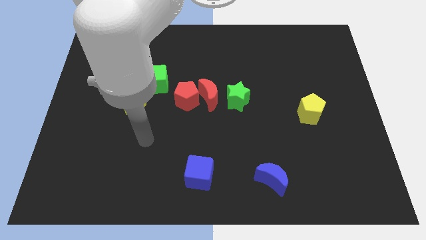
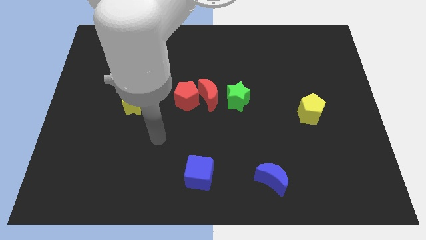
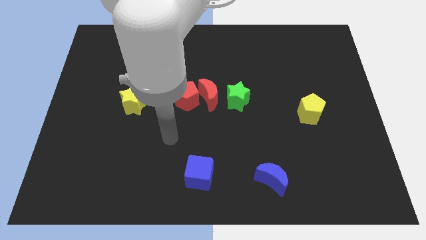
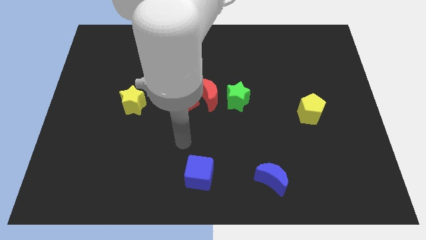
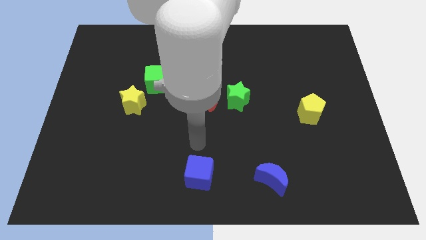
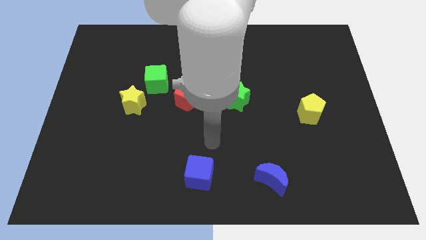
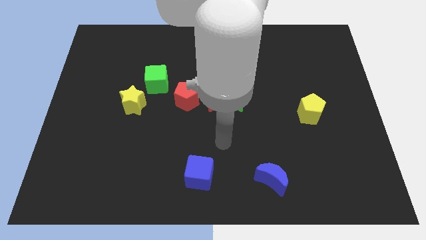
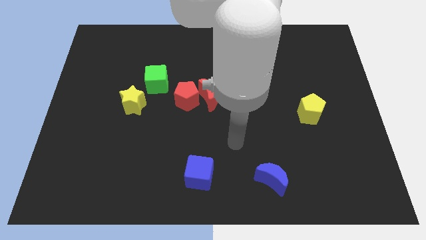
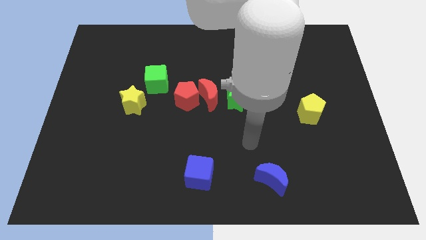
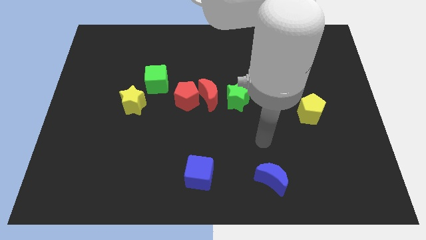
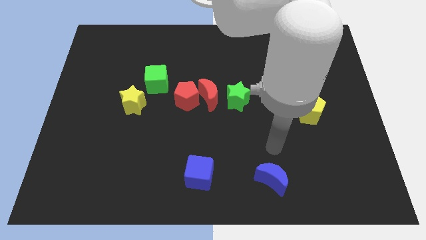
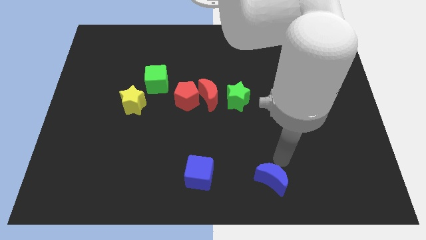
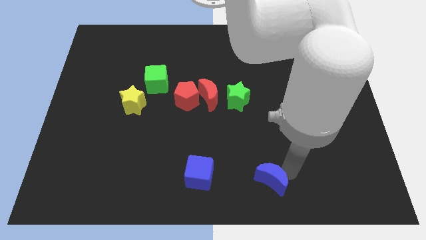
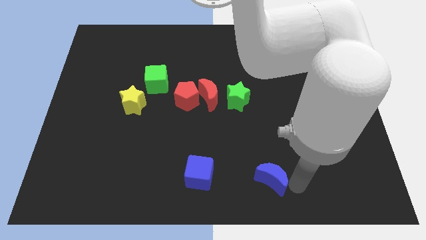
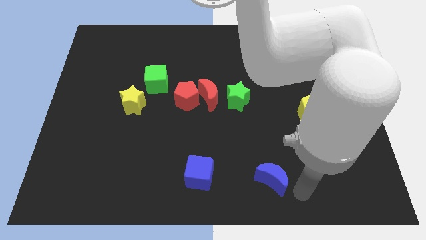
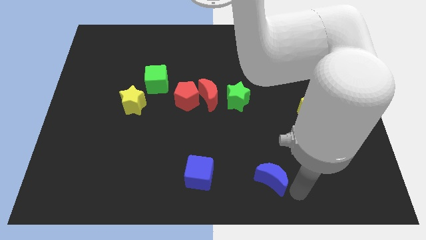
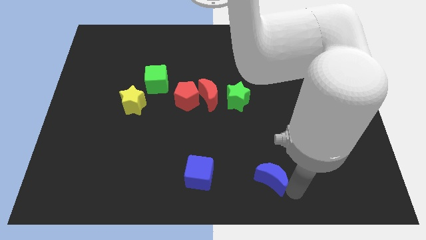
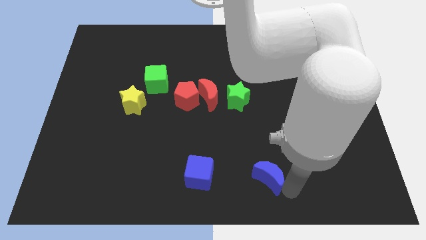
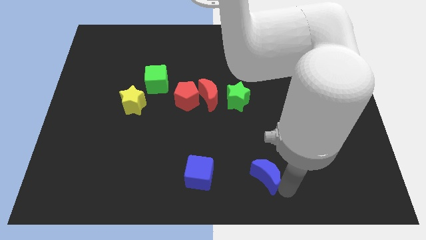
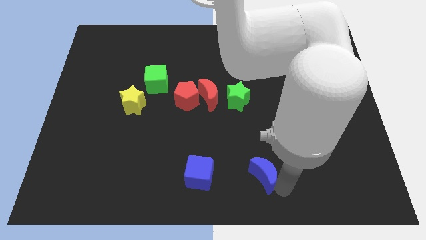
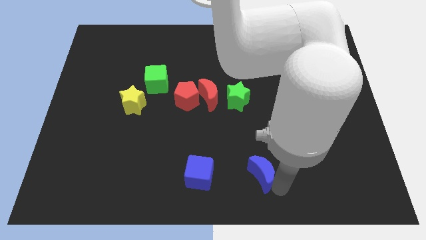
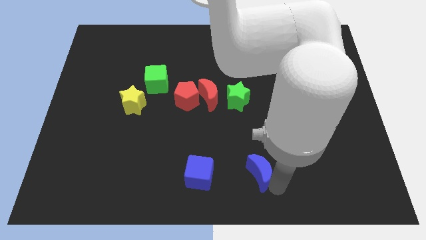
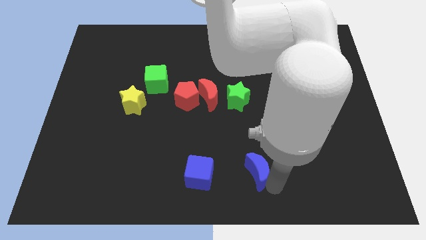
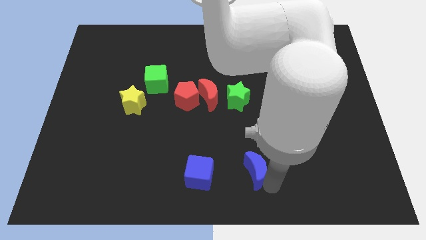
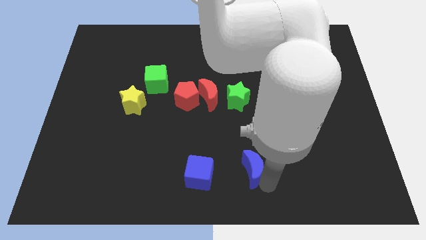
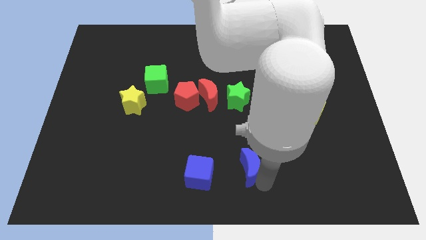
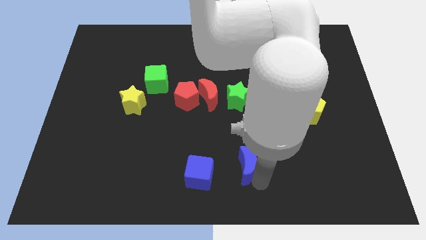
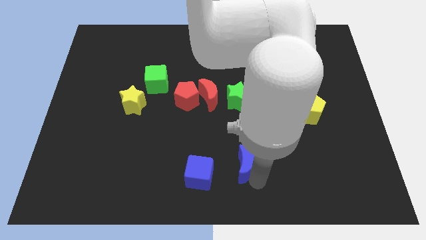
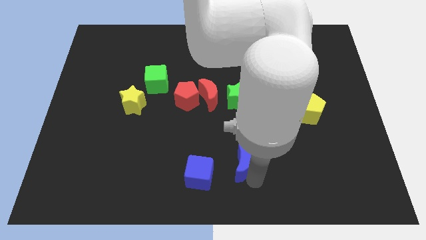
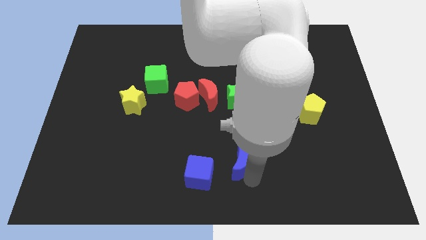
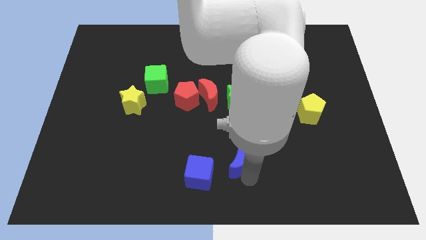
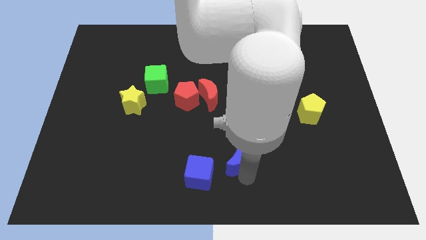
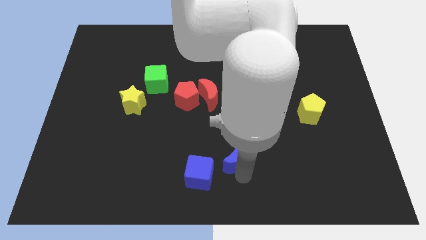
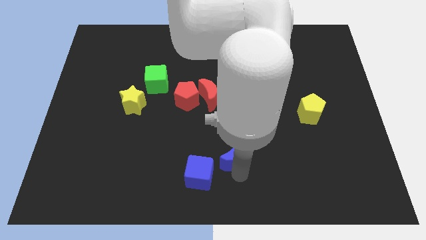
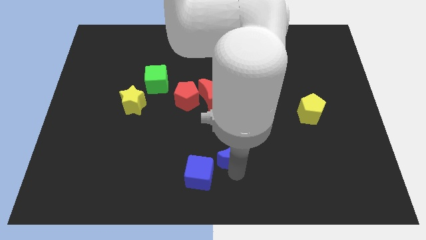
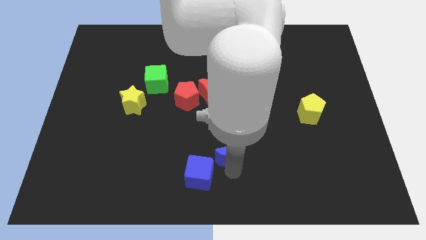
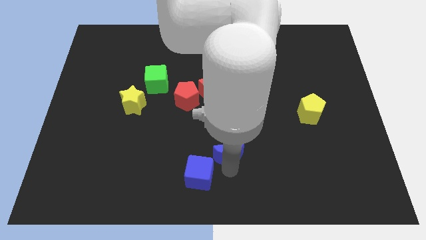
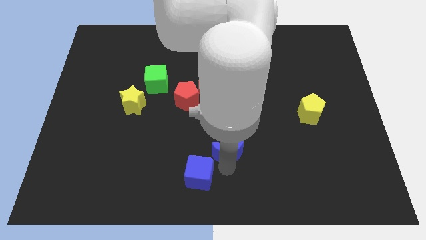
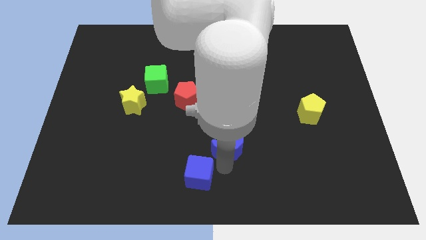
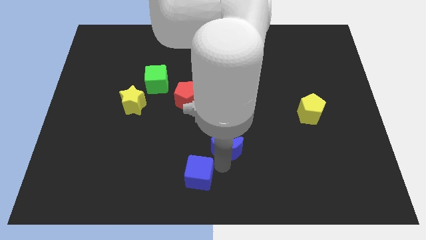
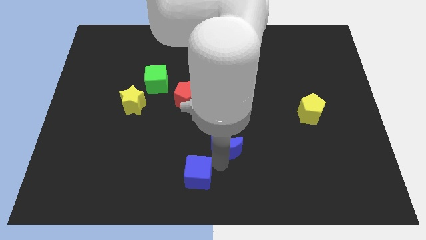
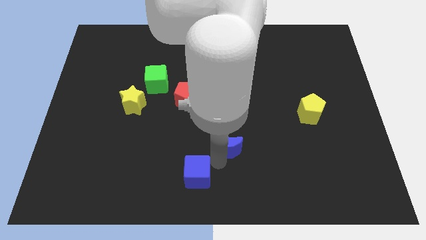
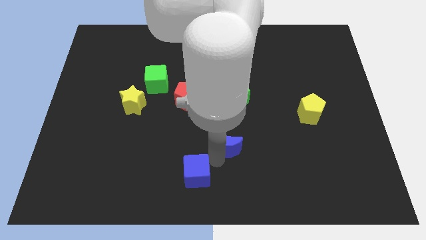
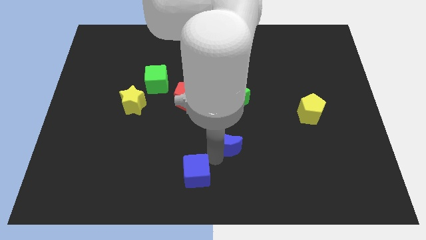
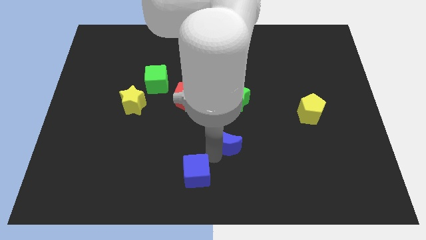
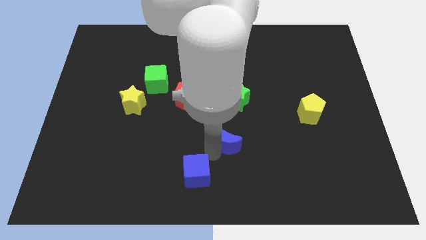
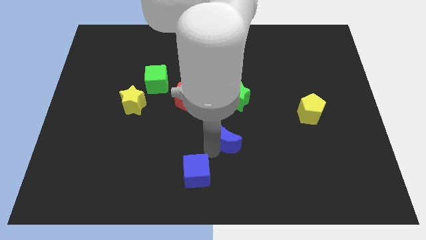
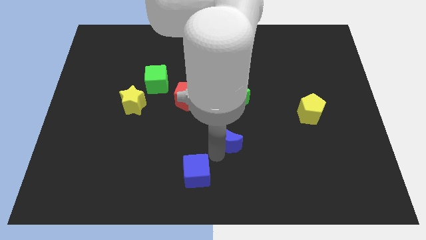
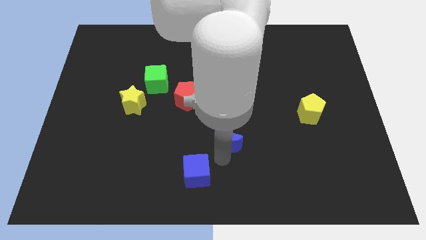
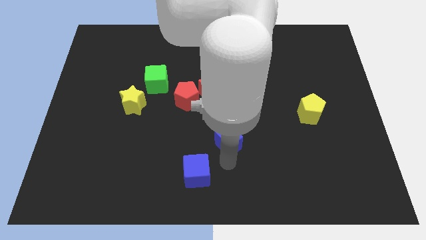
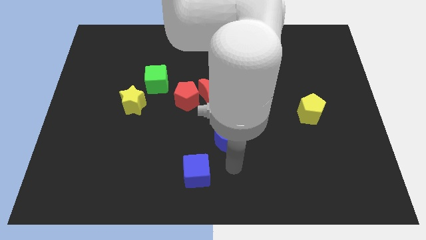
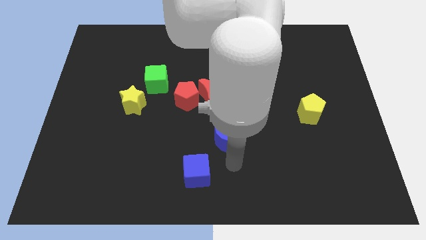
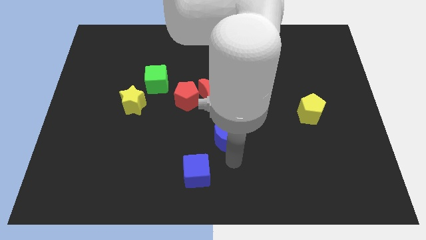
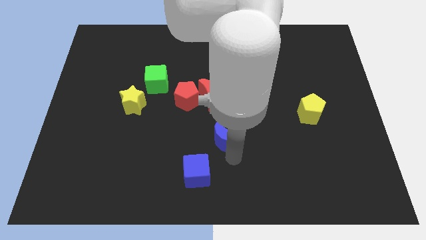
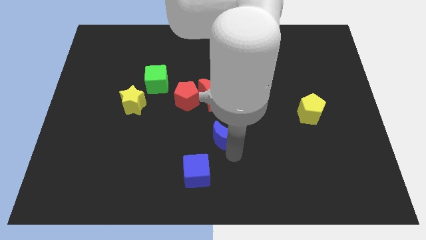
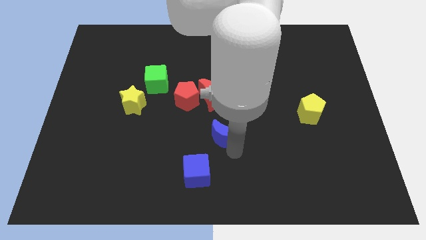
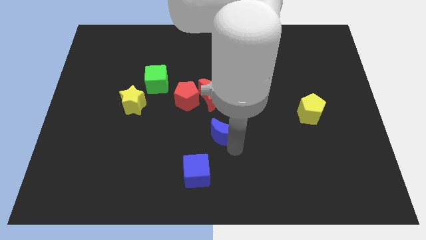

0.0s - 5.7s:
push the blue moon to the bottom left of the green star
